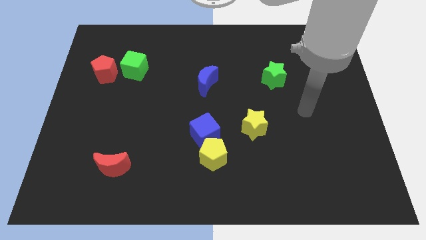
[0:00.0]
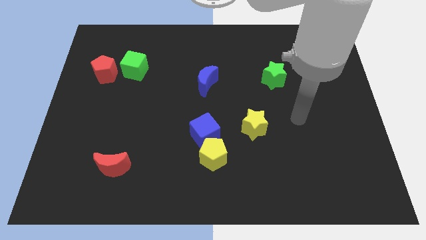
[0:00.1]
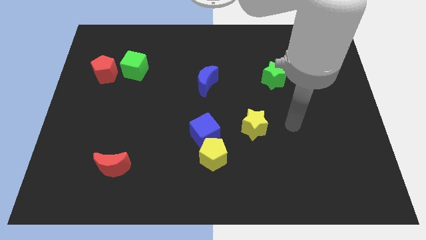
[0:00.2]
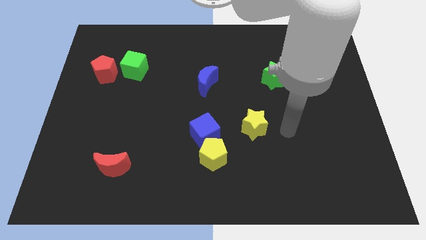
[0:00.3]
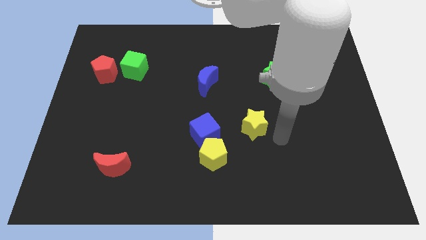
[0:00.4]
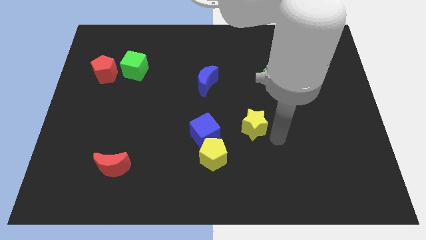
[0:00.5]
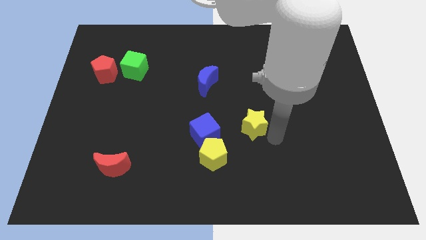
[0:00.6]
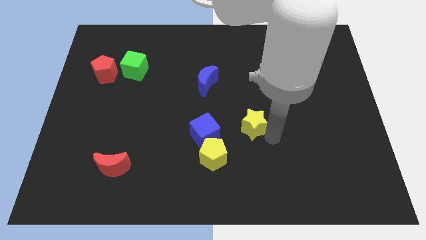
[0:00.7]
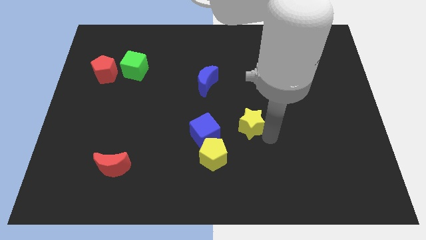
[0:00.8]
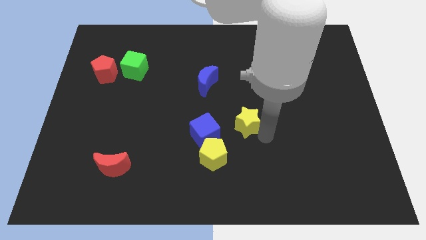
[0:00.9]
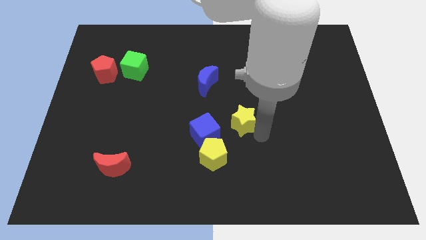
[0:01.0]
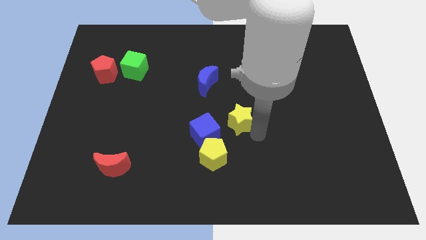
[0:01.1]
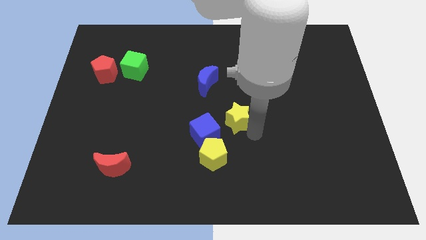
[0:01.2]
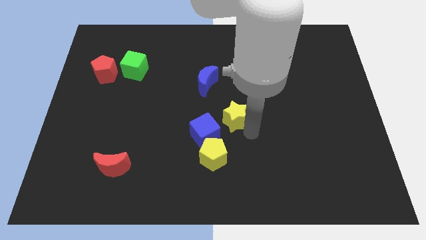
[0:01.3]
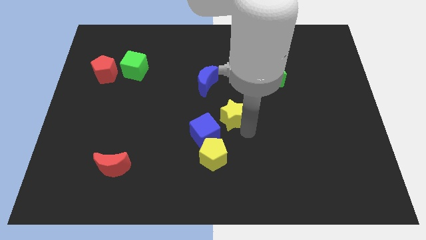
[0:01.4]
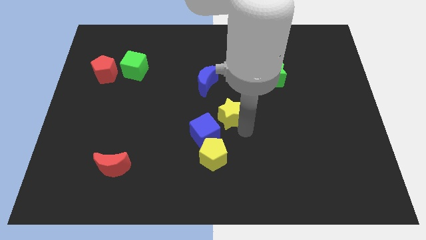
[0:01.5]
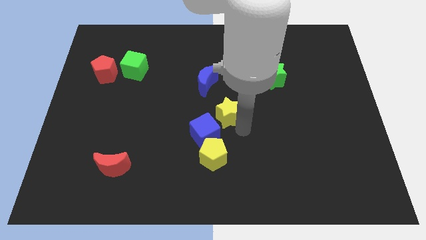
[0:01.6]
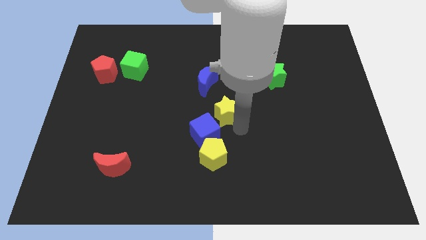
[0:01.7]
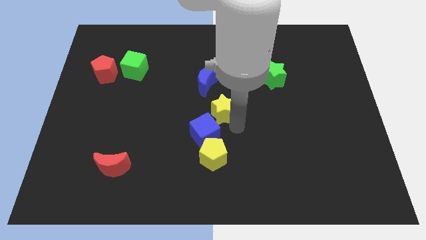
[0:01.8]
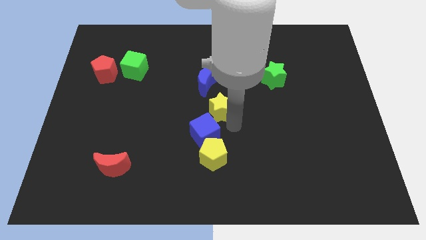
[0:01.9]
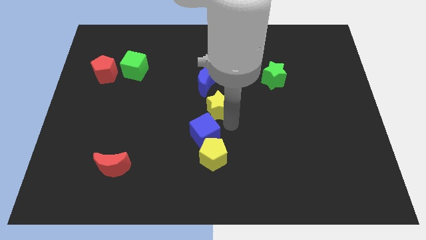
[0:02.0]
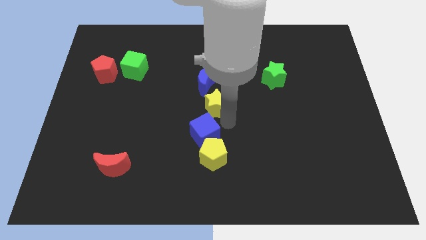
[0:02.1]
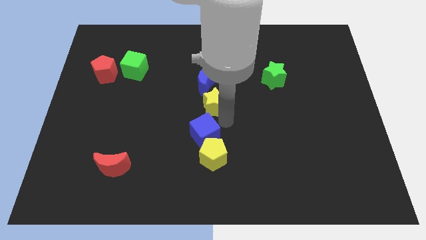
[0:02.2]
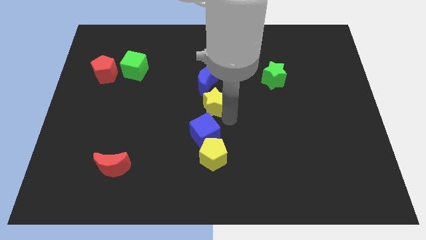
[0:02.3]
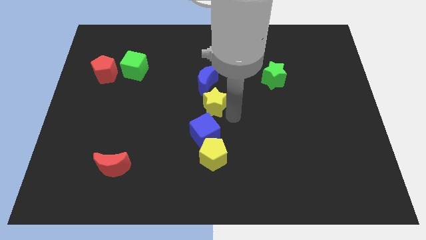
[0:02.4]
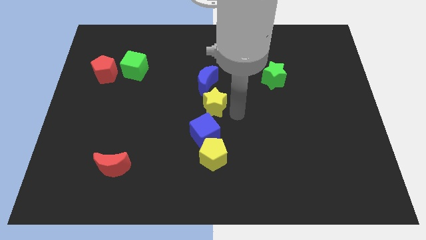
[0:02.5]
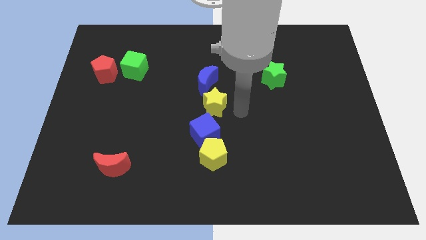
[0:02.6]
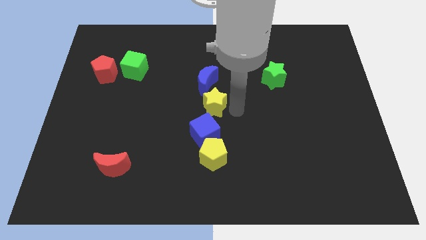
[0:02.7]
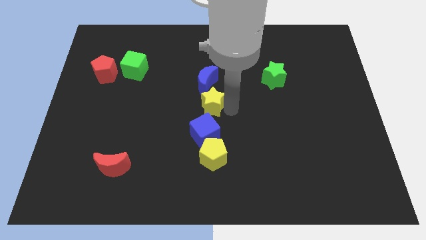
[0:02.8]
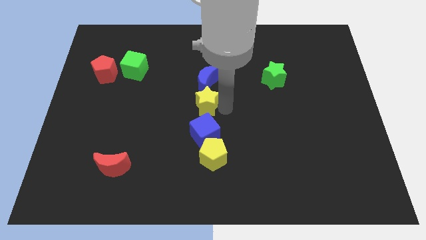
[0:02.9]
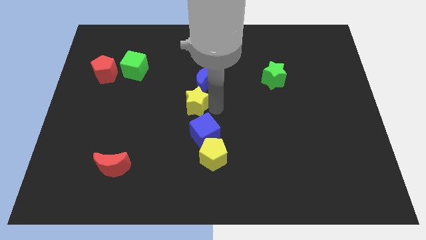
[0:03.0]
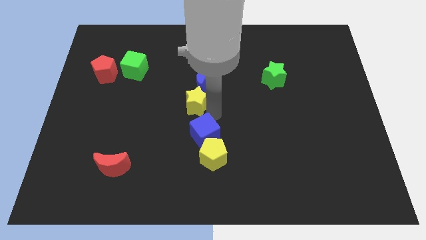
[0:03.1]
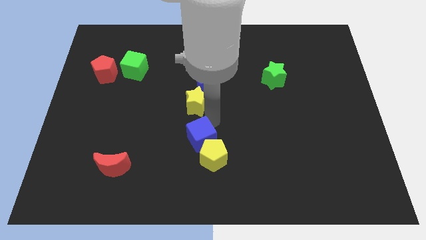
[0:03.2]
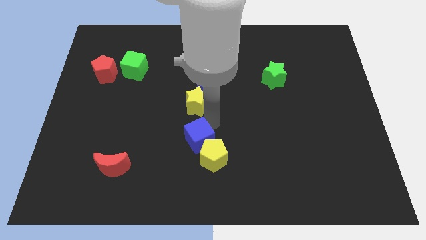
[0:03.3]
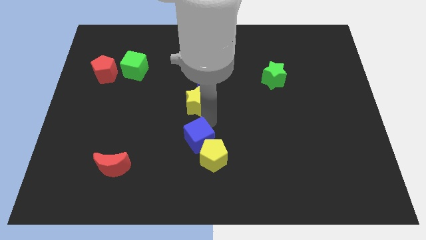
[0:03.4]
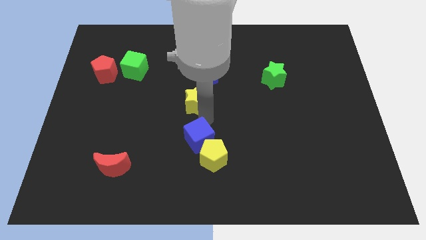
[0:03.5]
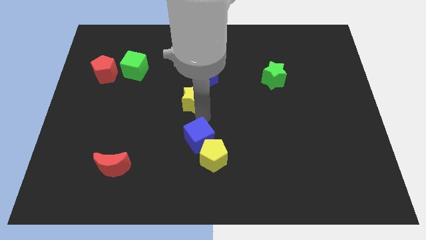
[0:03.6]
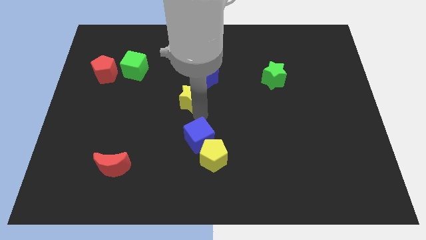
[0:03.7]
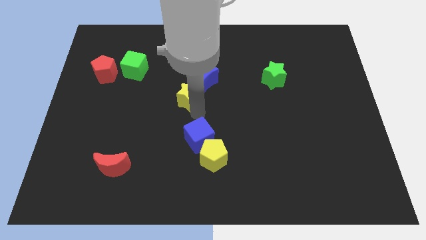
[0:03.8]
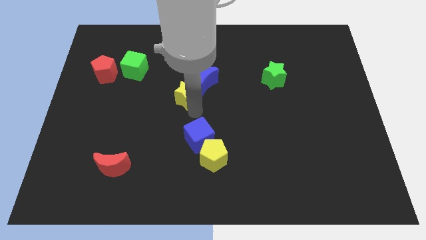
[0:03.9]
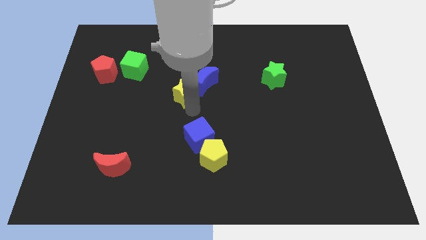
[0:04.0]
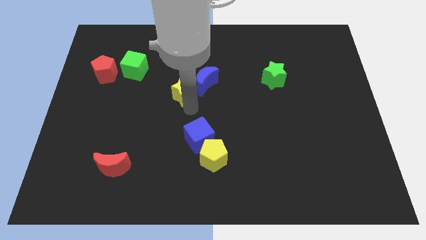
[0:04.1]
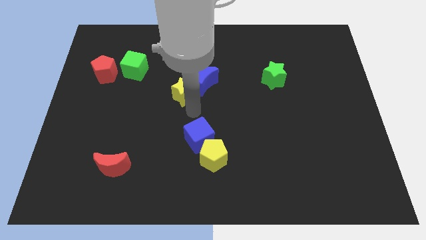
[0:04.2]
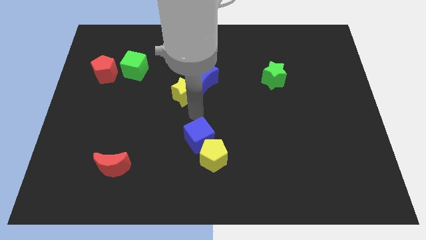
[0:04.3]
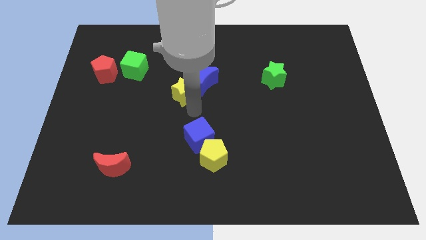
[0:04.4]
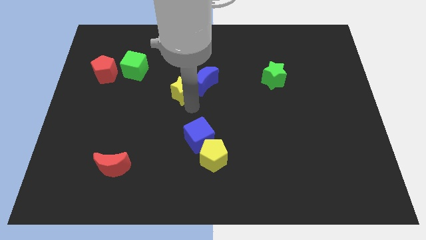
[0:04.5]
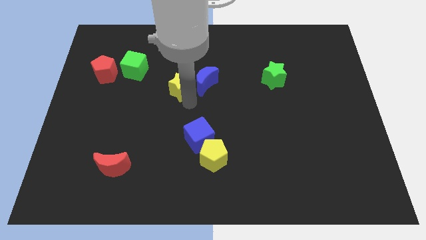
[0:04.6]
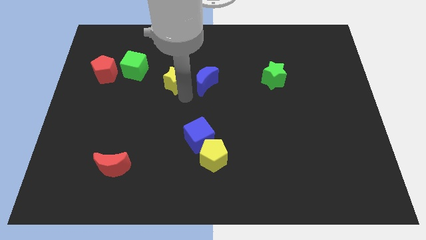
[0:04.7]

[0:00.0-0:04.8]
move the yellow star up and to the left diagonally

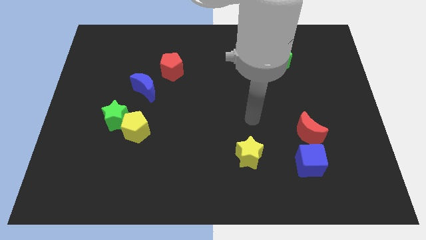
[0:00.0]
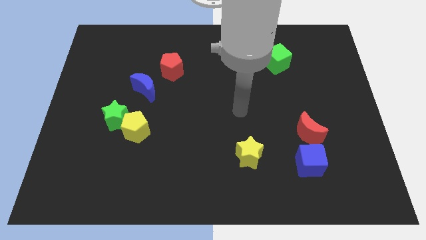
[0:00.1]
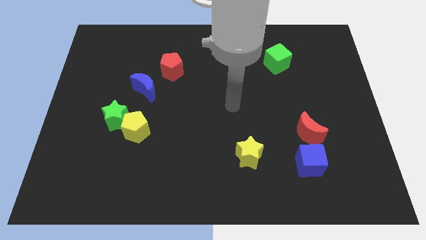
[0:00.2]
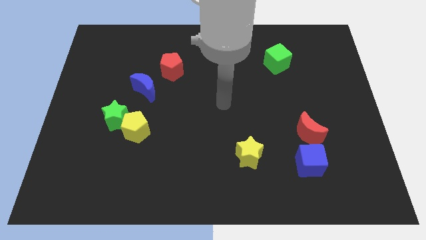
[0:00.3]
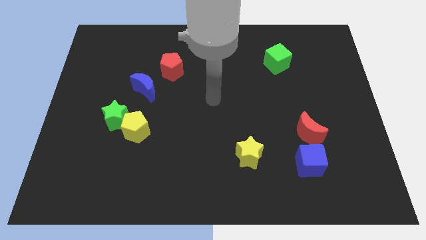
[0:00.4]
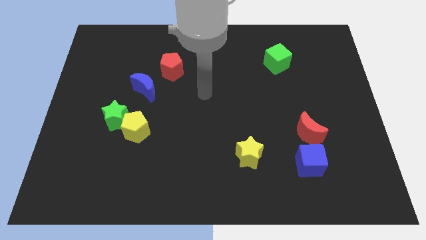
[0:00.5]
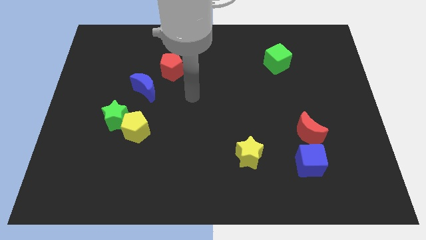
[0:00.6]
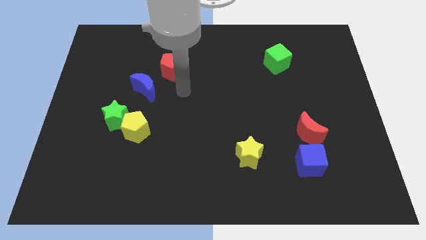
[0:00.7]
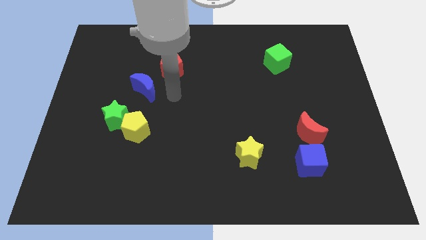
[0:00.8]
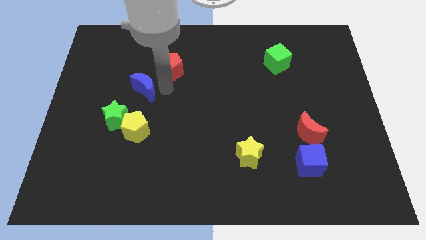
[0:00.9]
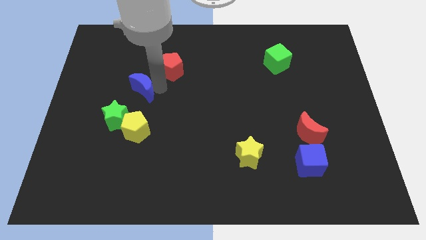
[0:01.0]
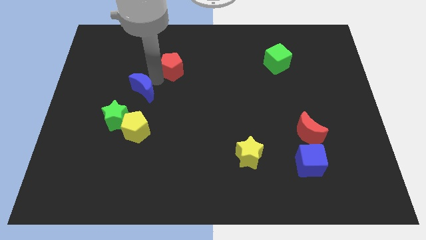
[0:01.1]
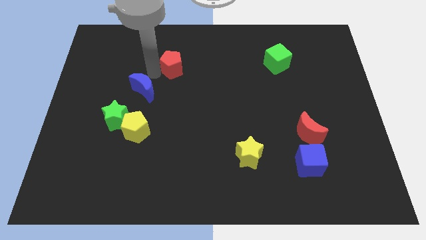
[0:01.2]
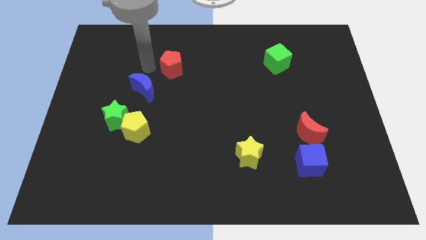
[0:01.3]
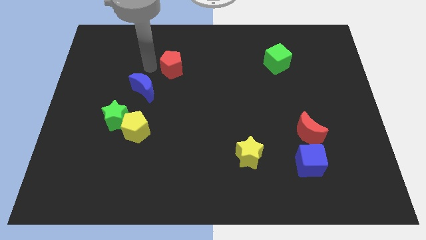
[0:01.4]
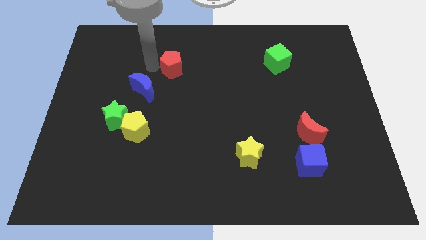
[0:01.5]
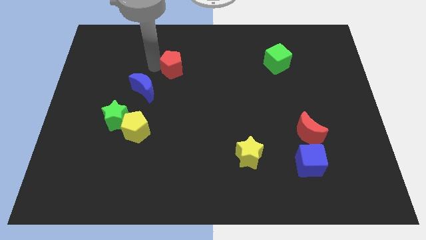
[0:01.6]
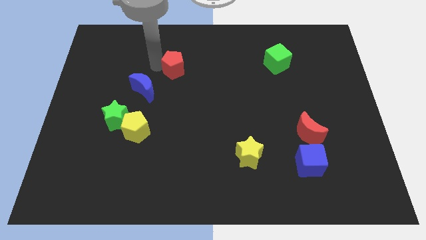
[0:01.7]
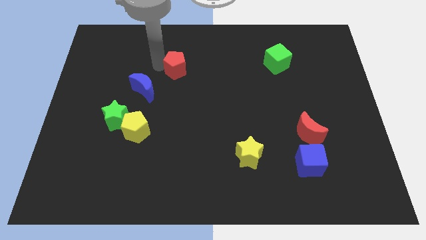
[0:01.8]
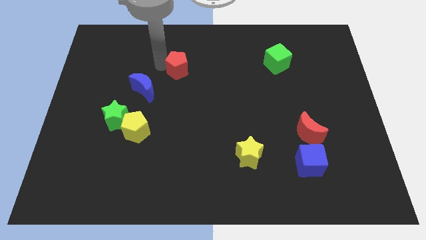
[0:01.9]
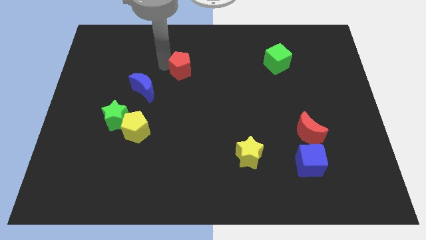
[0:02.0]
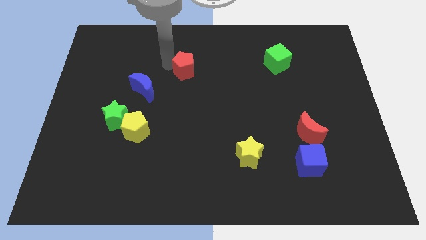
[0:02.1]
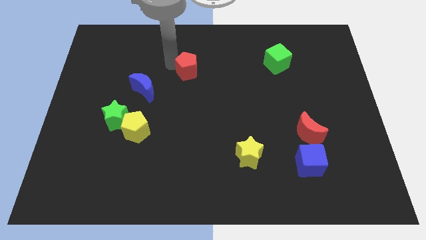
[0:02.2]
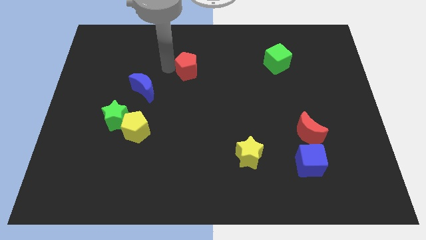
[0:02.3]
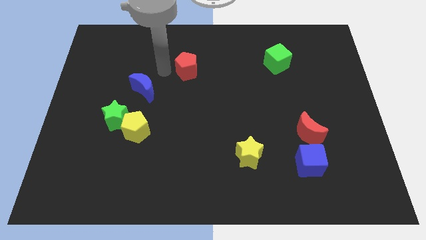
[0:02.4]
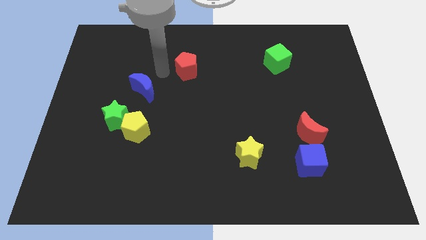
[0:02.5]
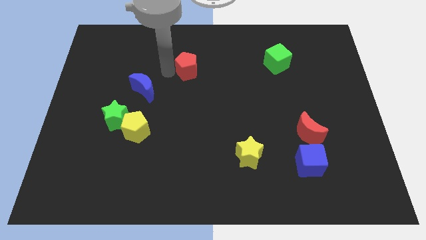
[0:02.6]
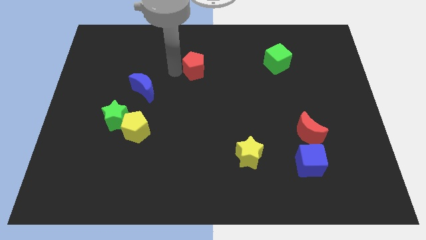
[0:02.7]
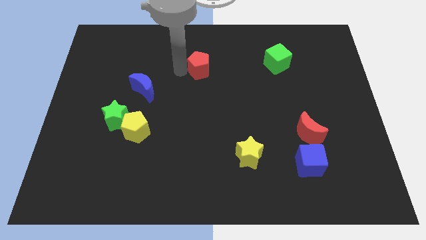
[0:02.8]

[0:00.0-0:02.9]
slide the red pentagon a bit to the right

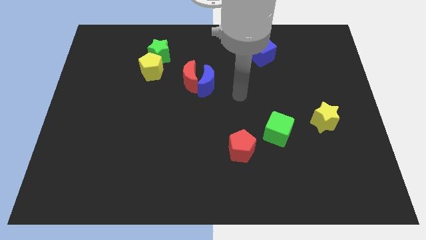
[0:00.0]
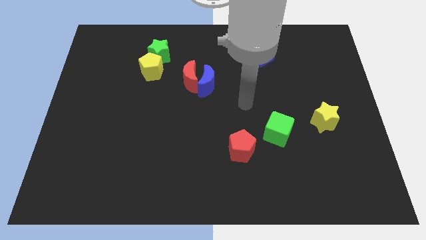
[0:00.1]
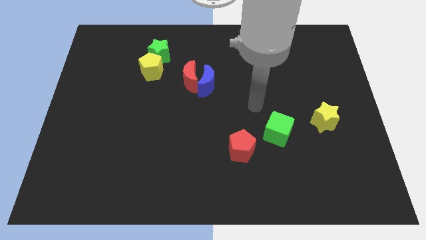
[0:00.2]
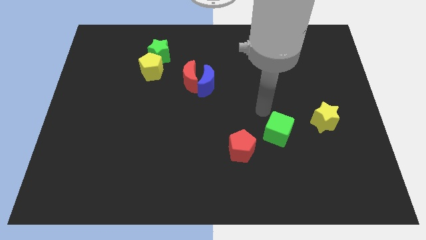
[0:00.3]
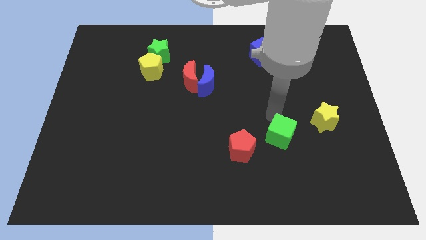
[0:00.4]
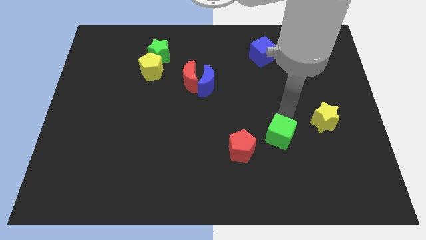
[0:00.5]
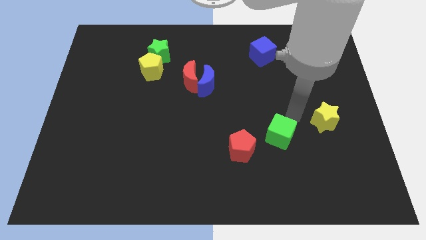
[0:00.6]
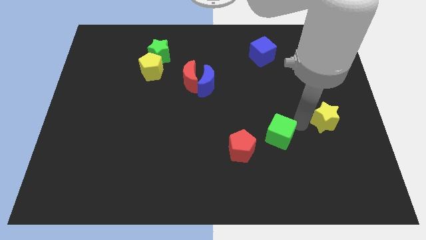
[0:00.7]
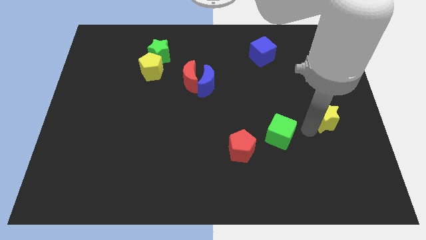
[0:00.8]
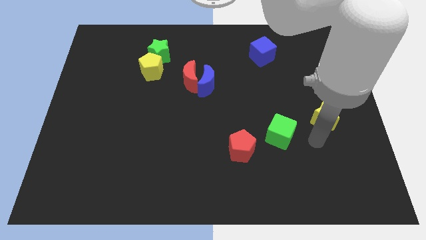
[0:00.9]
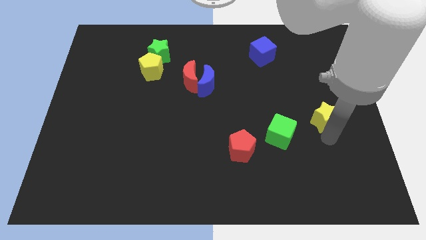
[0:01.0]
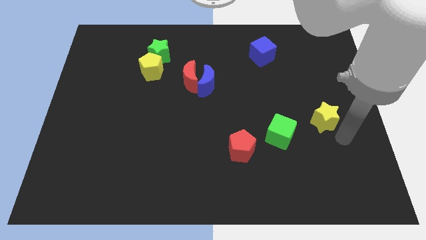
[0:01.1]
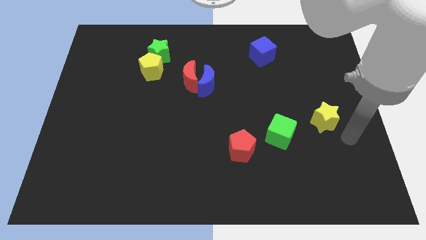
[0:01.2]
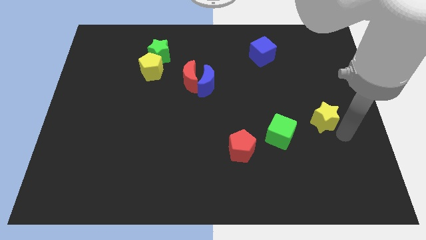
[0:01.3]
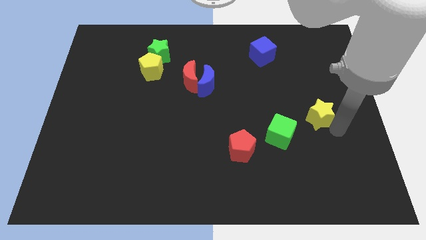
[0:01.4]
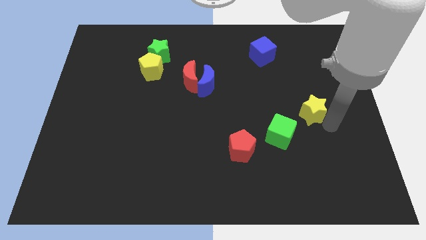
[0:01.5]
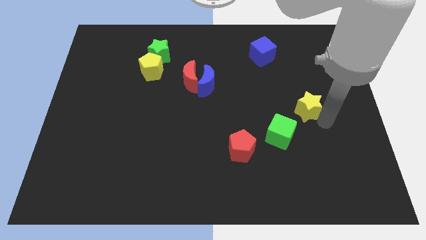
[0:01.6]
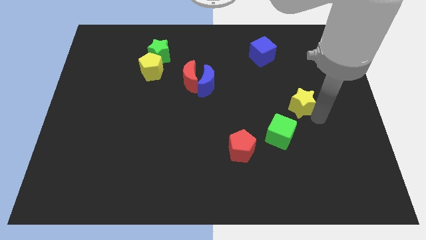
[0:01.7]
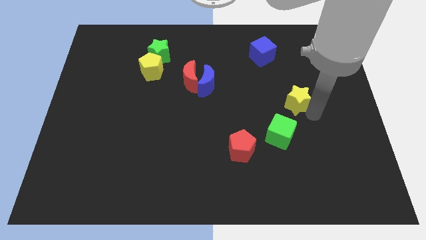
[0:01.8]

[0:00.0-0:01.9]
slightly move the yellow star up and left diagonally
